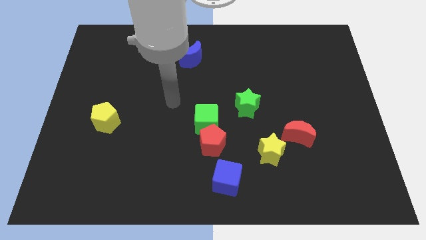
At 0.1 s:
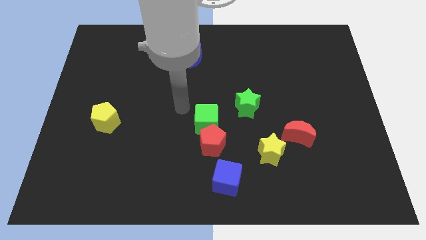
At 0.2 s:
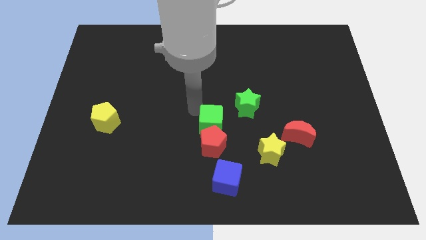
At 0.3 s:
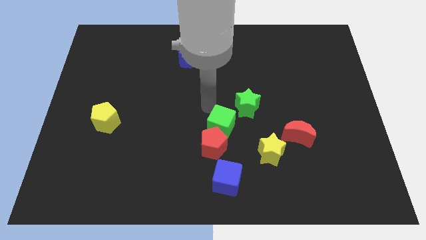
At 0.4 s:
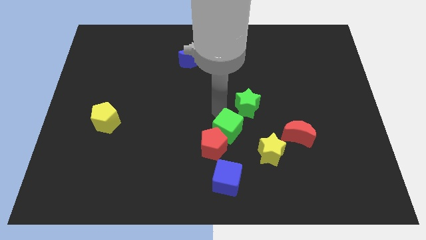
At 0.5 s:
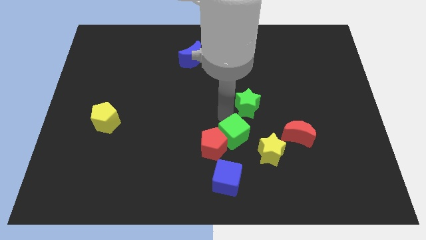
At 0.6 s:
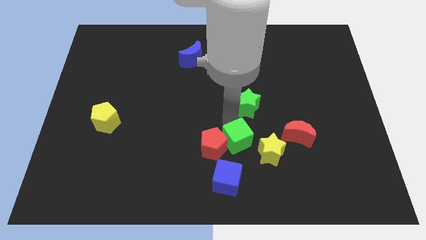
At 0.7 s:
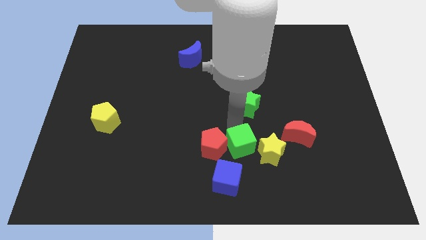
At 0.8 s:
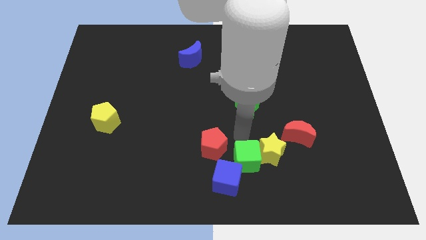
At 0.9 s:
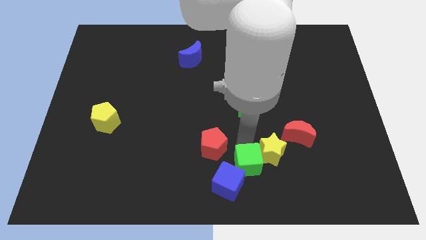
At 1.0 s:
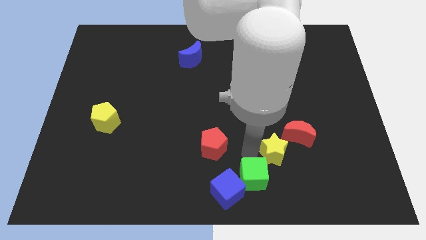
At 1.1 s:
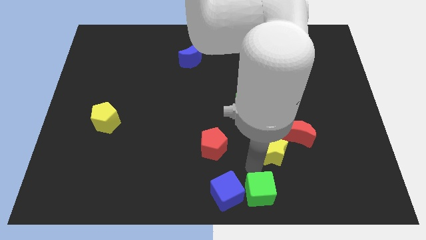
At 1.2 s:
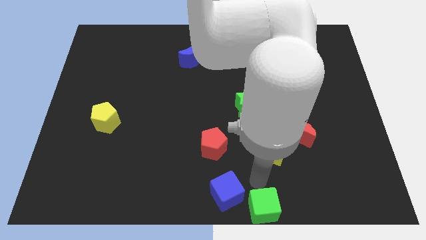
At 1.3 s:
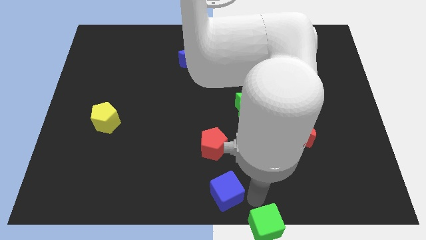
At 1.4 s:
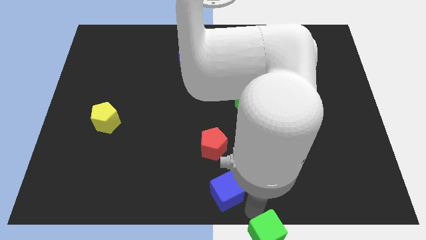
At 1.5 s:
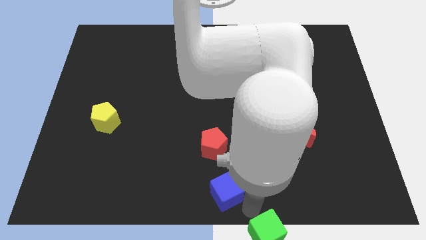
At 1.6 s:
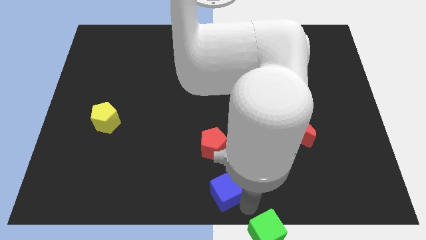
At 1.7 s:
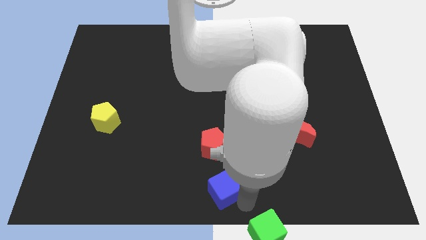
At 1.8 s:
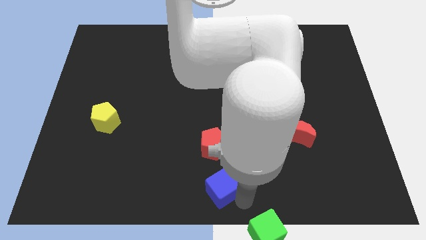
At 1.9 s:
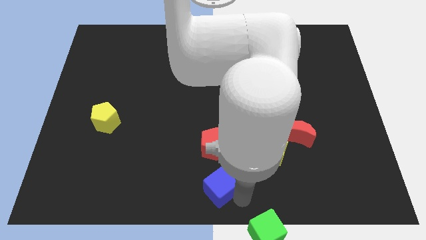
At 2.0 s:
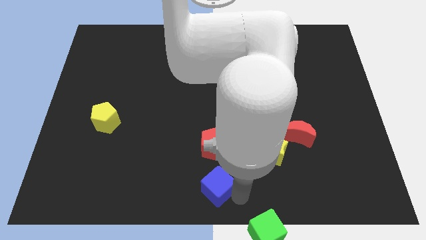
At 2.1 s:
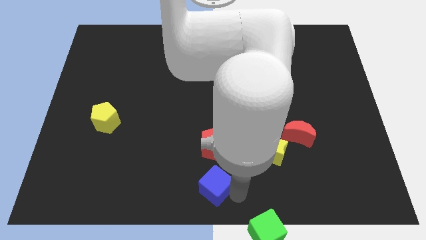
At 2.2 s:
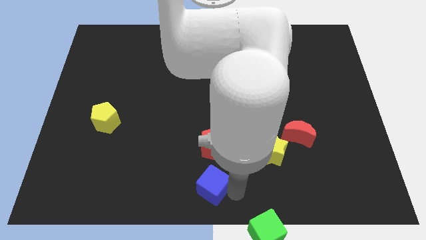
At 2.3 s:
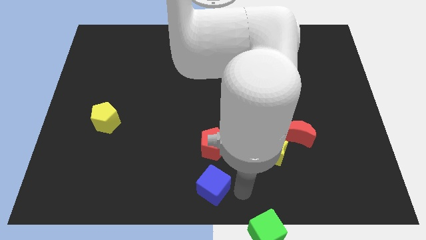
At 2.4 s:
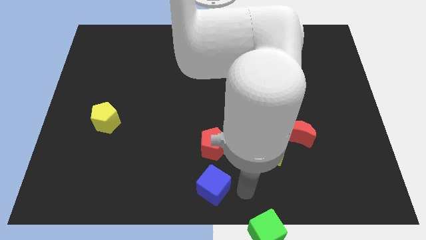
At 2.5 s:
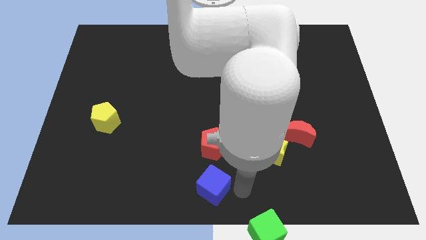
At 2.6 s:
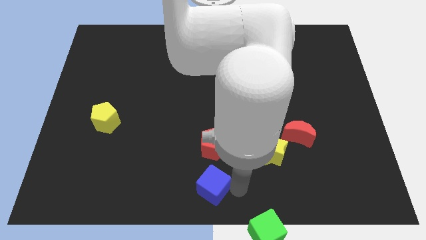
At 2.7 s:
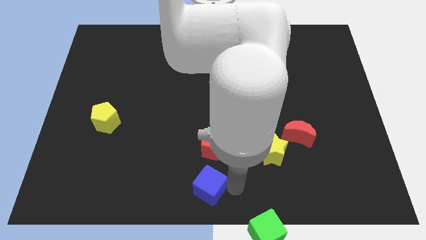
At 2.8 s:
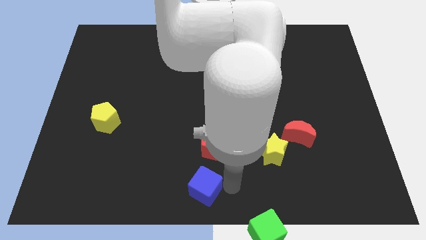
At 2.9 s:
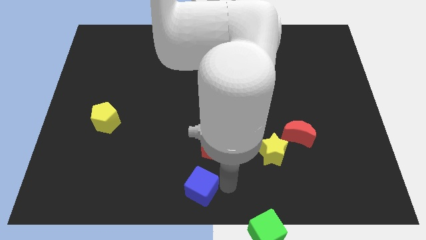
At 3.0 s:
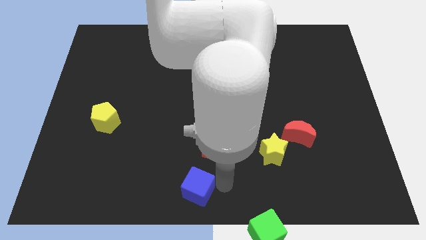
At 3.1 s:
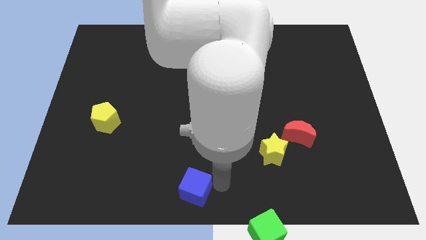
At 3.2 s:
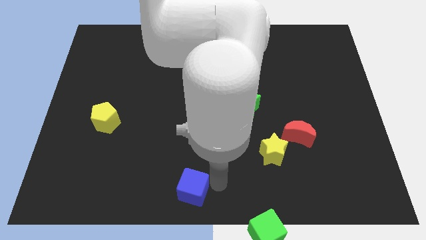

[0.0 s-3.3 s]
push the blue cube slightly left

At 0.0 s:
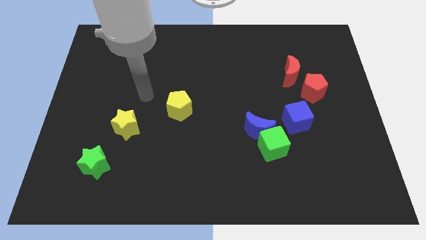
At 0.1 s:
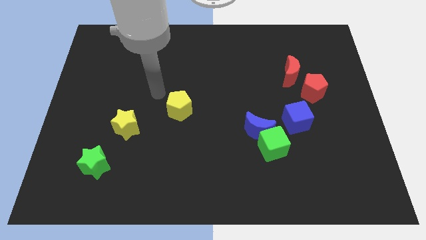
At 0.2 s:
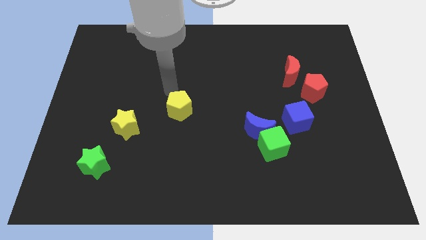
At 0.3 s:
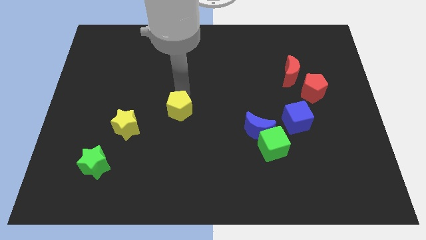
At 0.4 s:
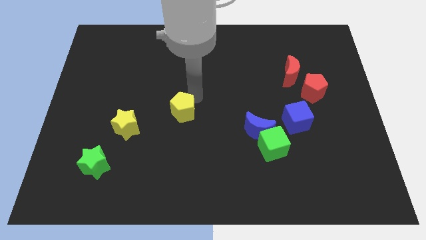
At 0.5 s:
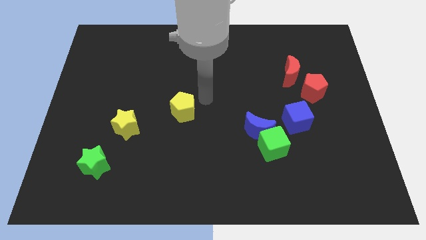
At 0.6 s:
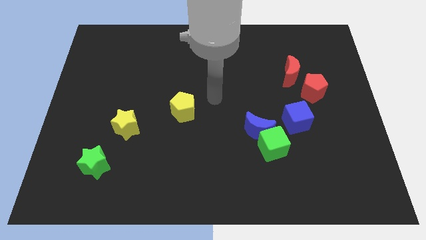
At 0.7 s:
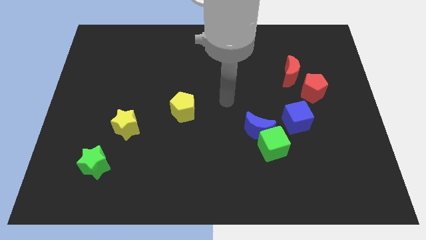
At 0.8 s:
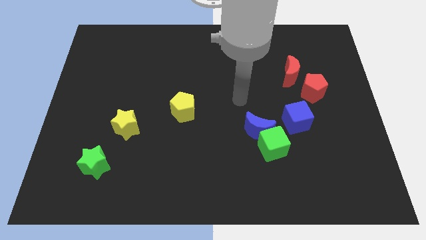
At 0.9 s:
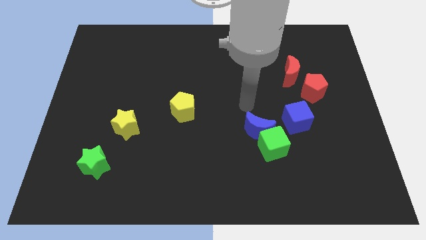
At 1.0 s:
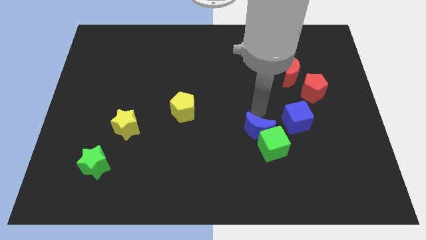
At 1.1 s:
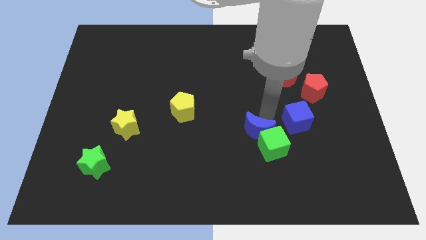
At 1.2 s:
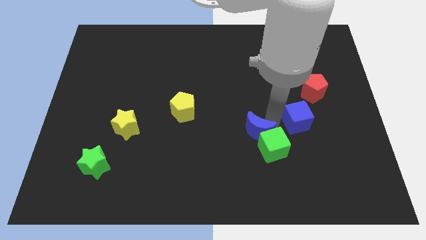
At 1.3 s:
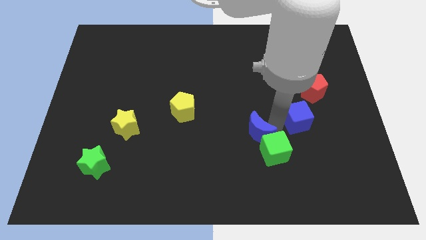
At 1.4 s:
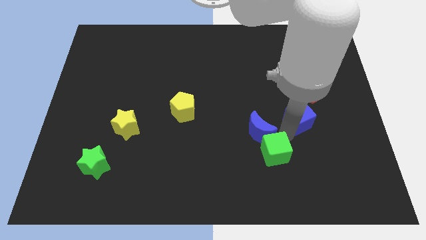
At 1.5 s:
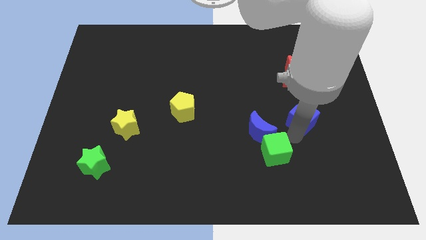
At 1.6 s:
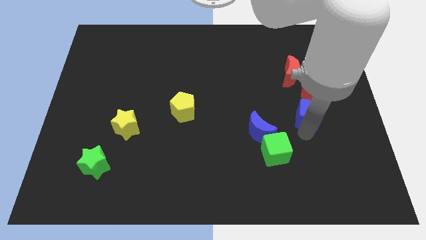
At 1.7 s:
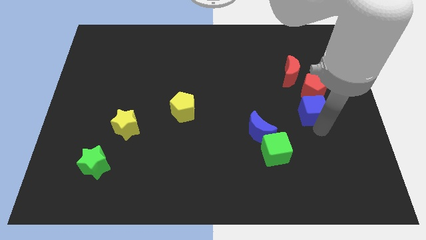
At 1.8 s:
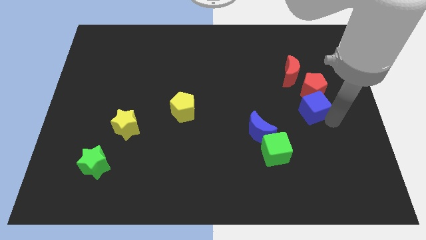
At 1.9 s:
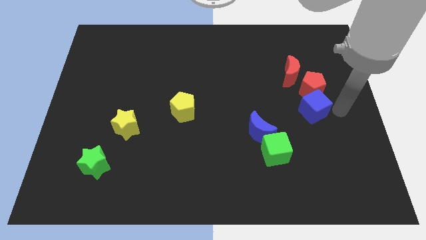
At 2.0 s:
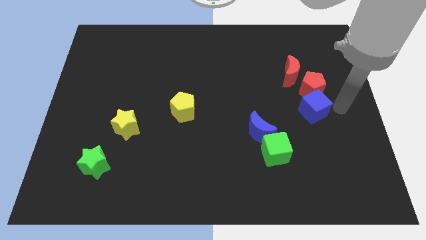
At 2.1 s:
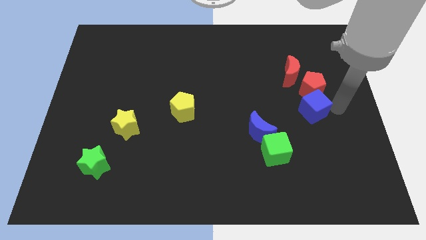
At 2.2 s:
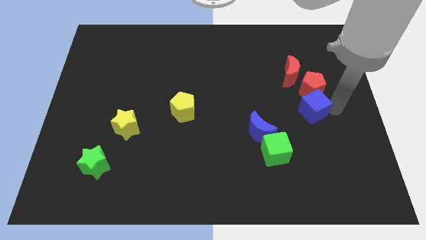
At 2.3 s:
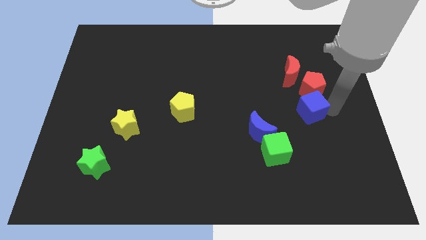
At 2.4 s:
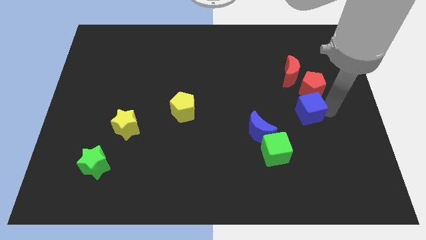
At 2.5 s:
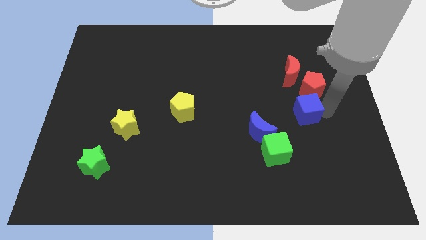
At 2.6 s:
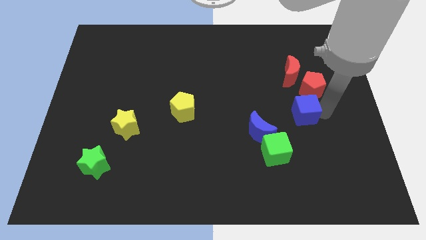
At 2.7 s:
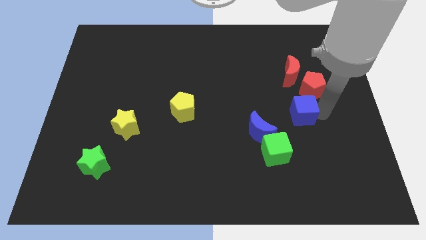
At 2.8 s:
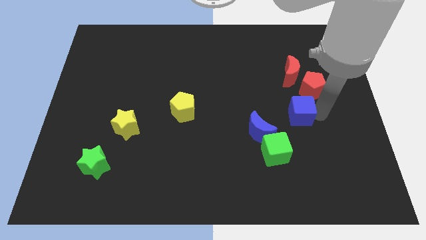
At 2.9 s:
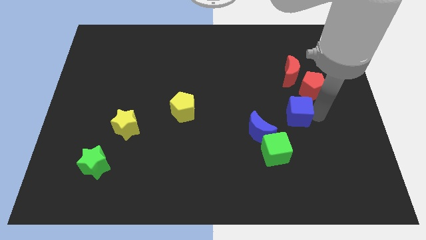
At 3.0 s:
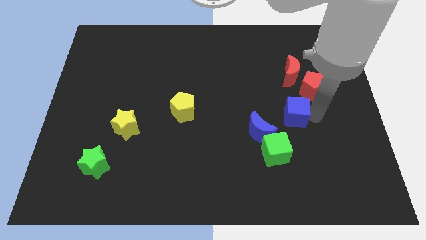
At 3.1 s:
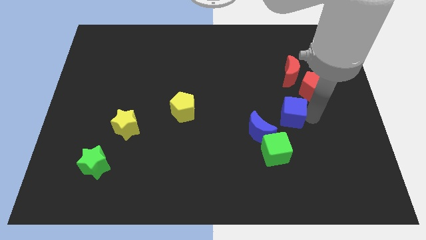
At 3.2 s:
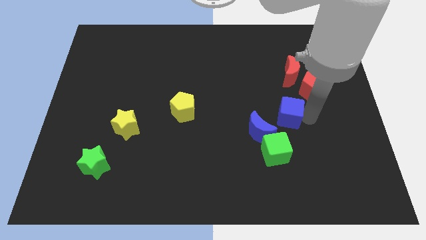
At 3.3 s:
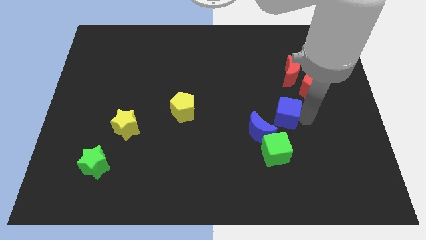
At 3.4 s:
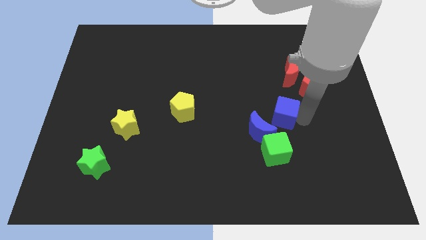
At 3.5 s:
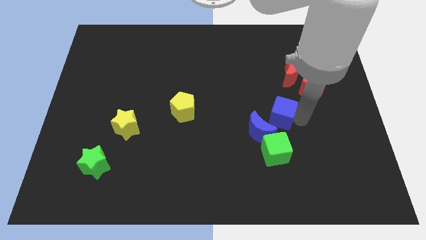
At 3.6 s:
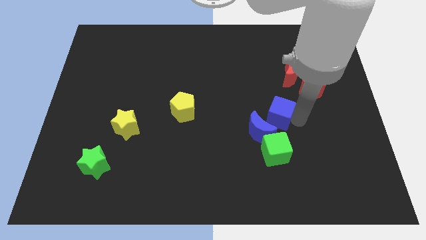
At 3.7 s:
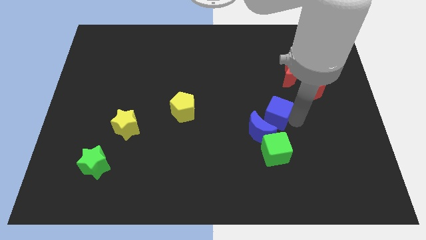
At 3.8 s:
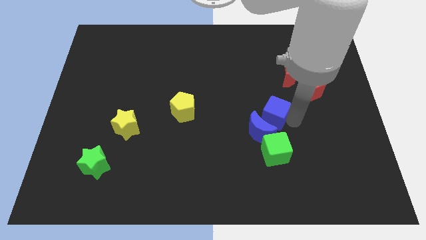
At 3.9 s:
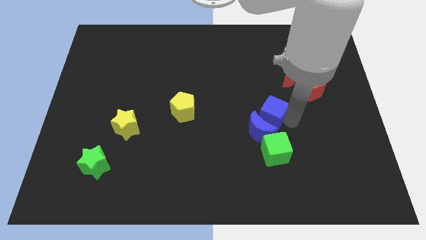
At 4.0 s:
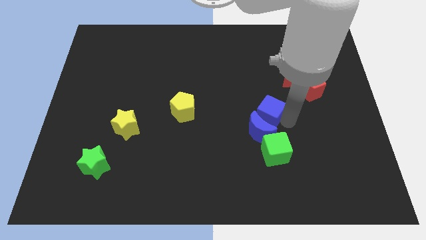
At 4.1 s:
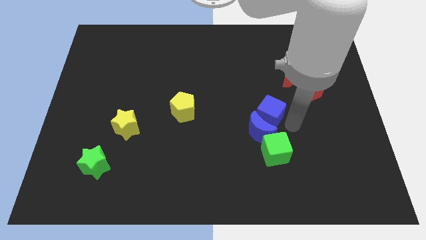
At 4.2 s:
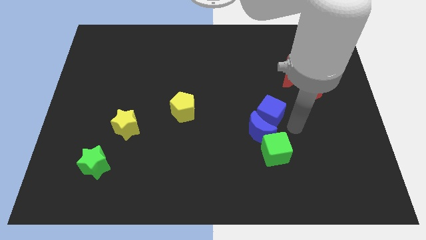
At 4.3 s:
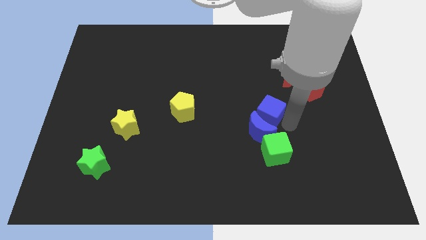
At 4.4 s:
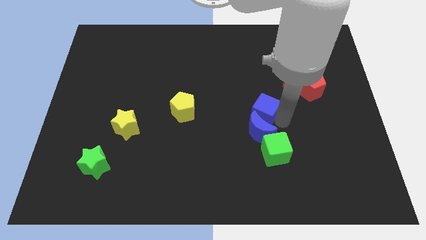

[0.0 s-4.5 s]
slightly push the blue cube to the left
